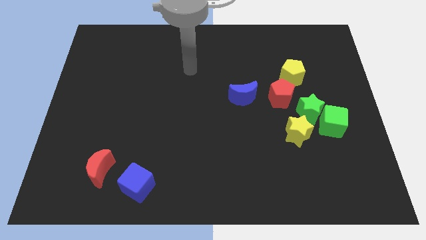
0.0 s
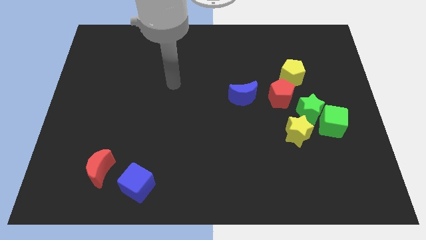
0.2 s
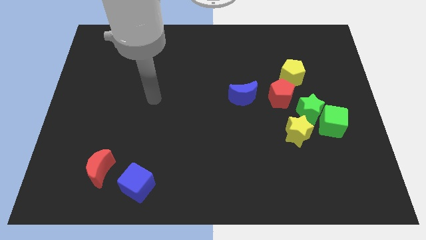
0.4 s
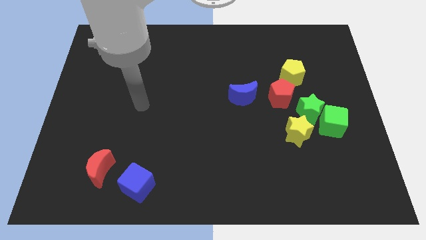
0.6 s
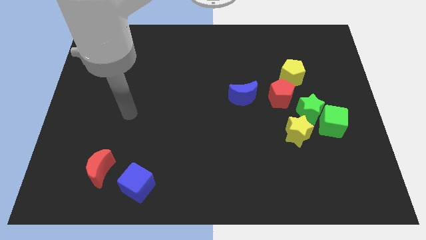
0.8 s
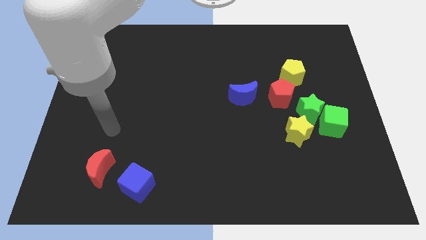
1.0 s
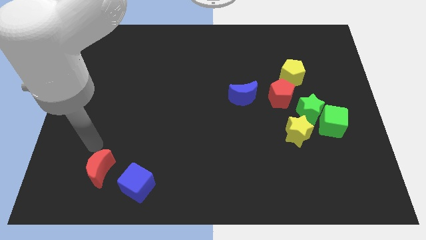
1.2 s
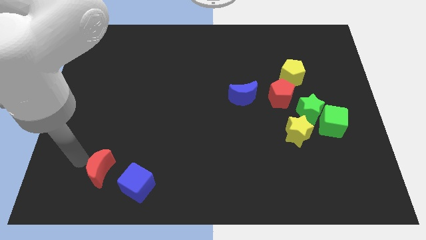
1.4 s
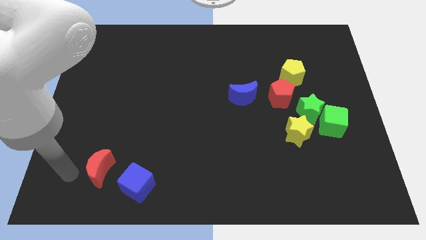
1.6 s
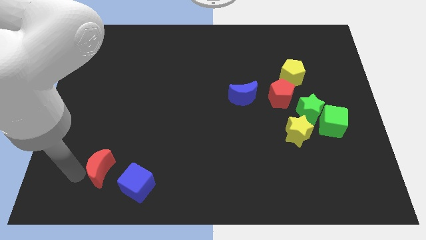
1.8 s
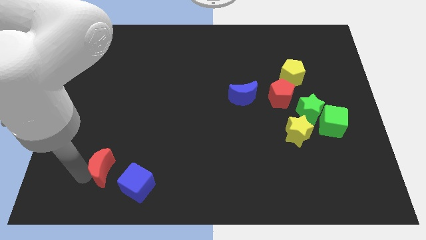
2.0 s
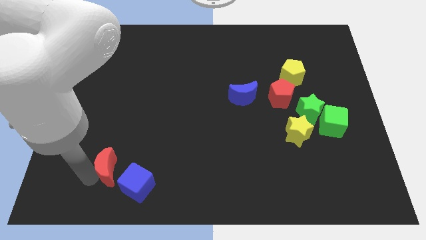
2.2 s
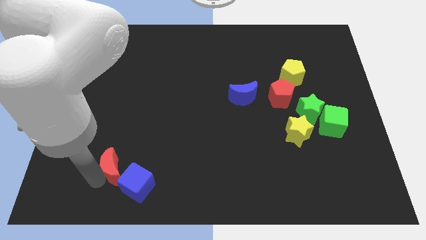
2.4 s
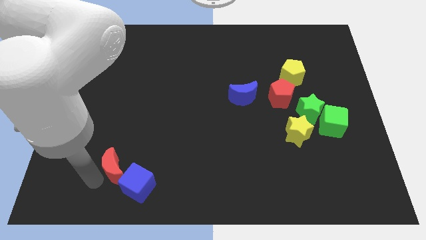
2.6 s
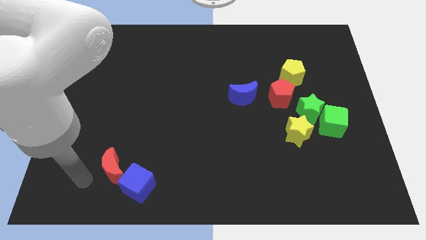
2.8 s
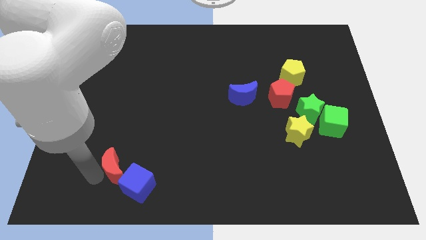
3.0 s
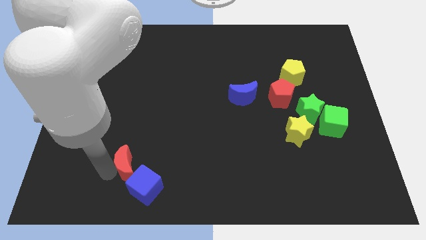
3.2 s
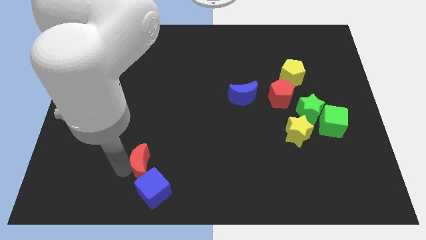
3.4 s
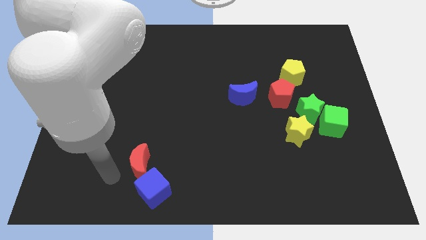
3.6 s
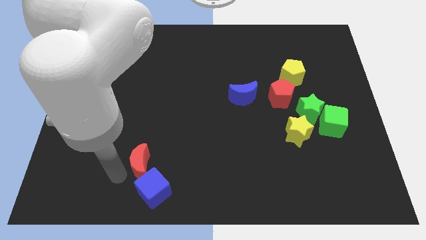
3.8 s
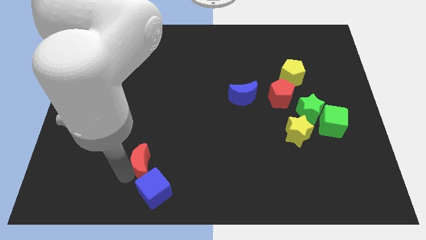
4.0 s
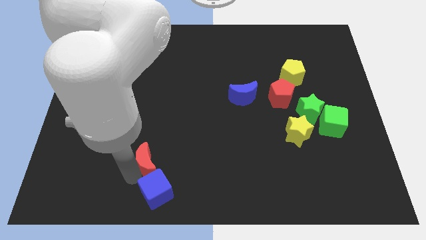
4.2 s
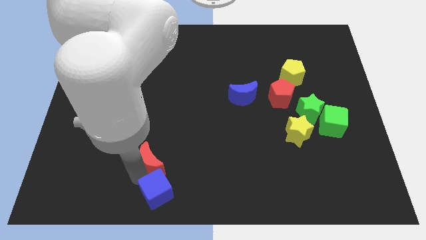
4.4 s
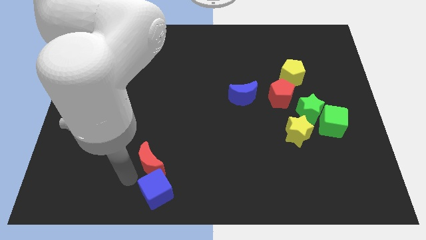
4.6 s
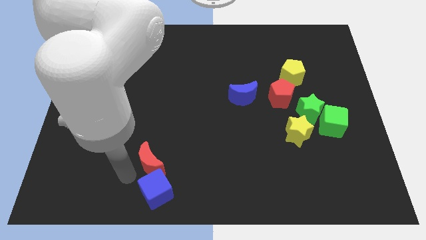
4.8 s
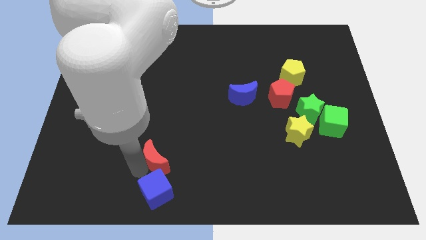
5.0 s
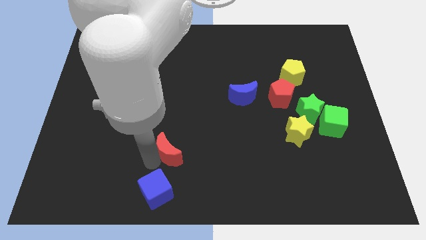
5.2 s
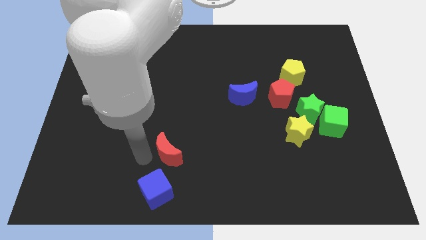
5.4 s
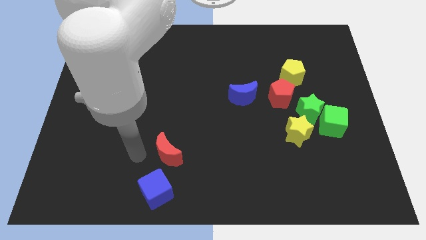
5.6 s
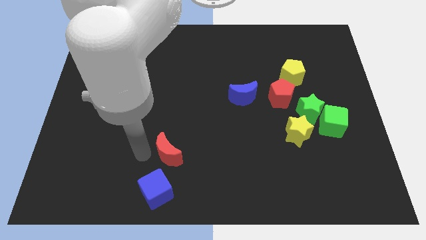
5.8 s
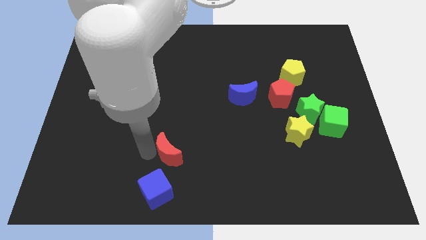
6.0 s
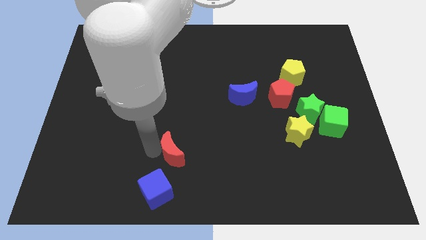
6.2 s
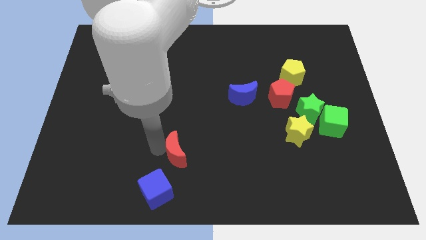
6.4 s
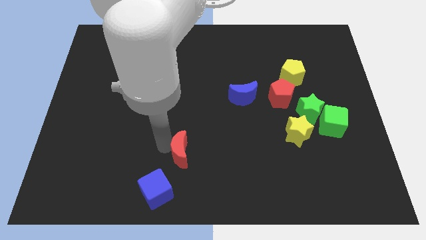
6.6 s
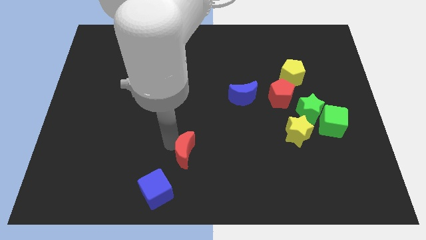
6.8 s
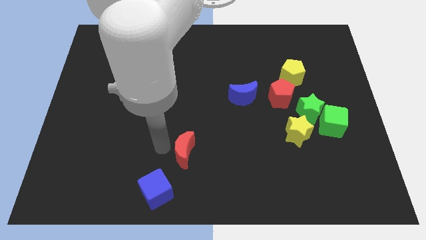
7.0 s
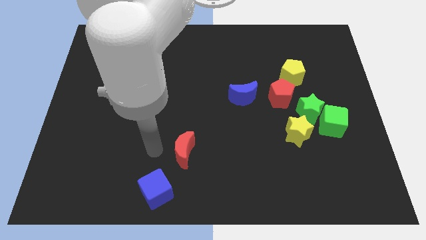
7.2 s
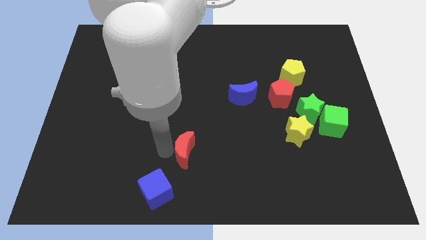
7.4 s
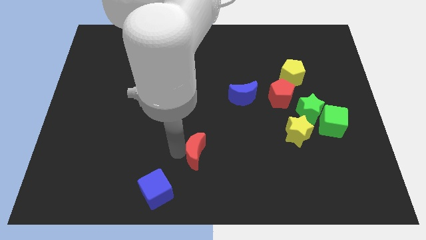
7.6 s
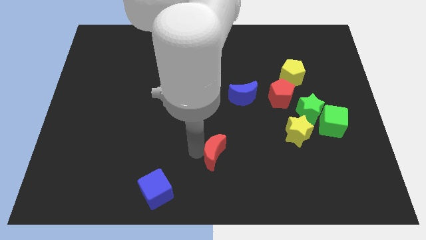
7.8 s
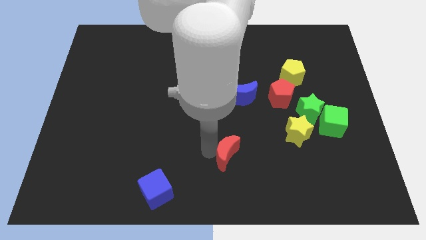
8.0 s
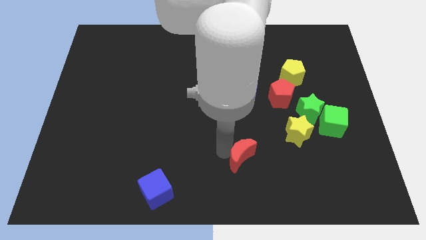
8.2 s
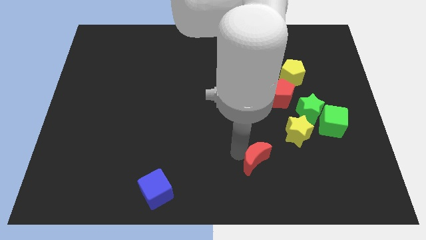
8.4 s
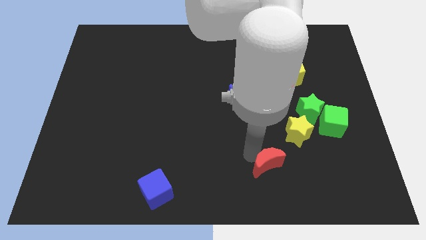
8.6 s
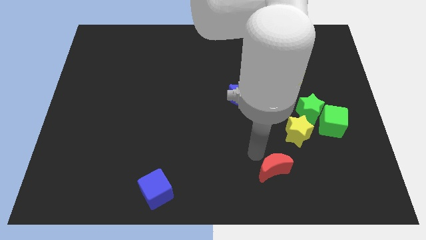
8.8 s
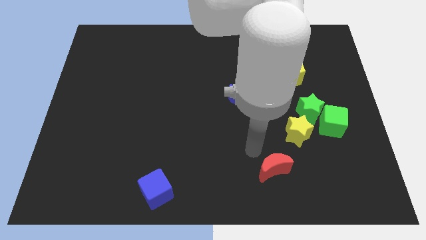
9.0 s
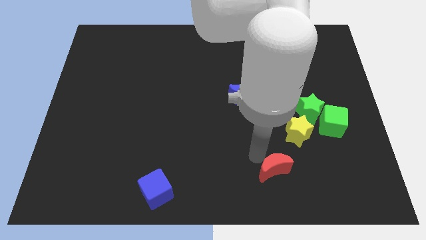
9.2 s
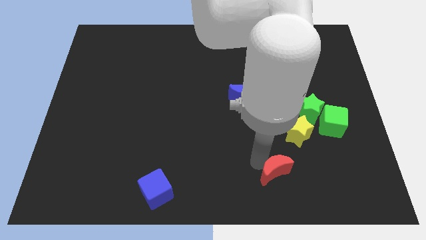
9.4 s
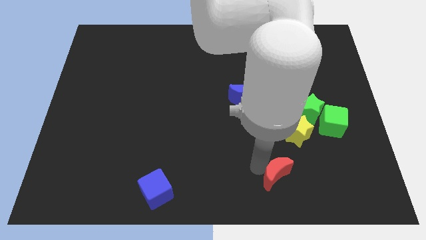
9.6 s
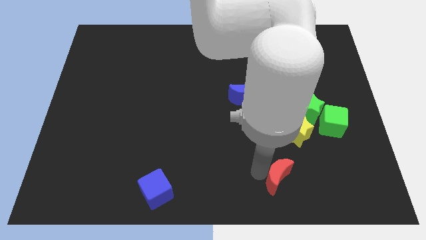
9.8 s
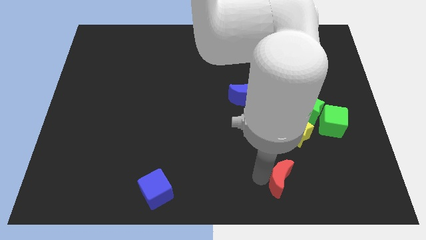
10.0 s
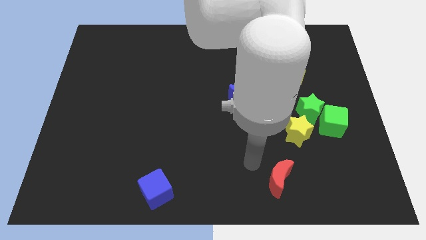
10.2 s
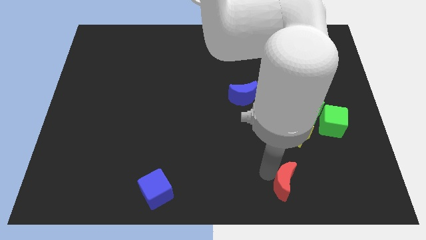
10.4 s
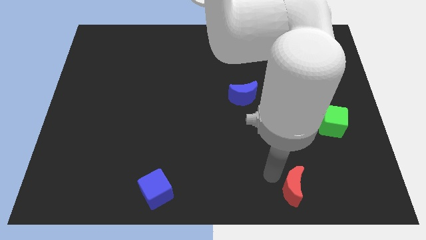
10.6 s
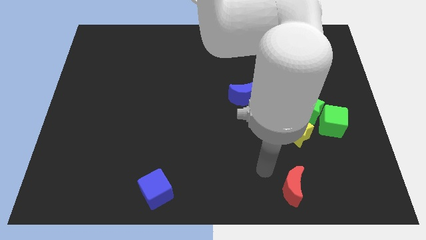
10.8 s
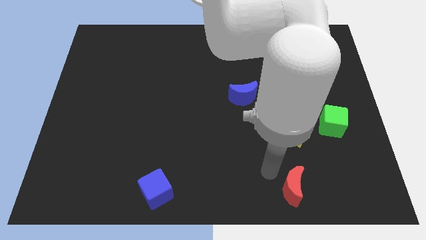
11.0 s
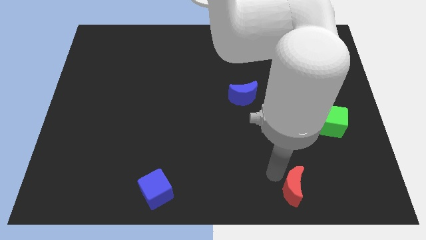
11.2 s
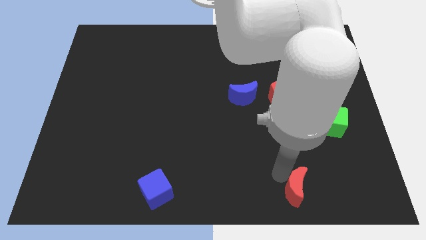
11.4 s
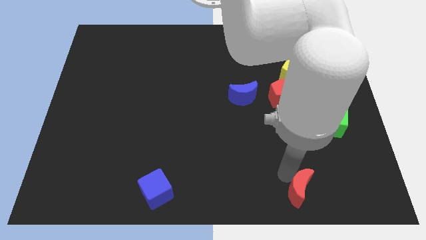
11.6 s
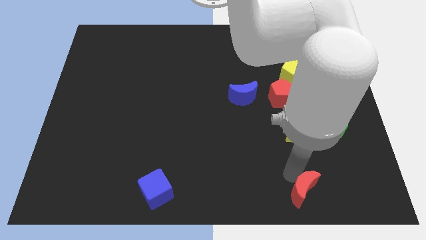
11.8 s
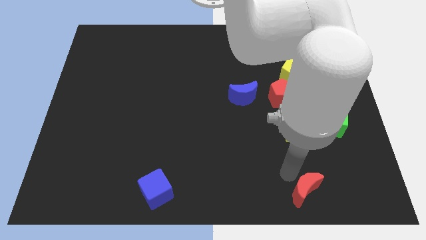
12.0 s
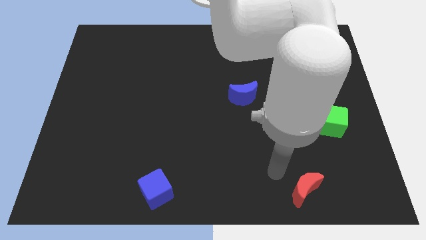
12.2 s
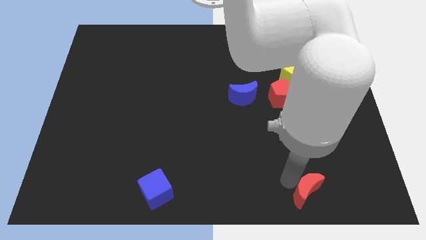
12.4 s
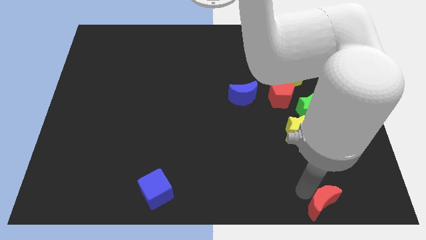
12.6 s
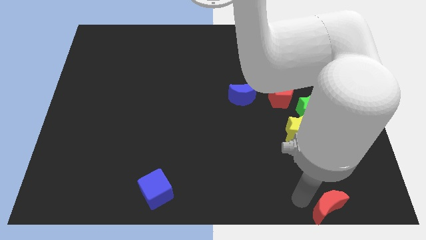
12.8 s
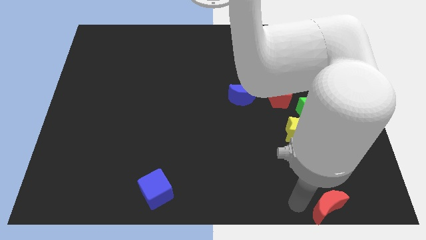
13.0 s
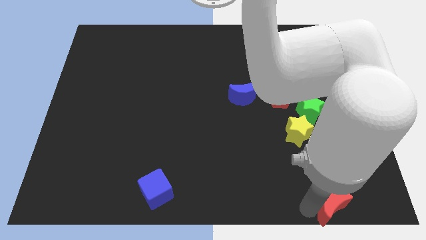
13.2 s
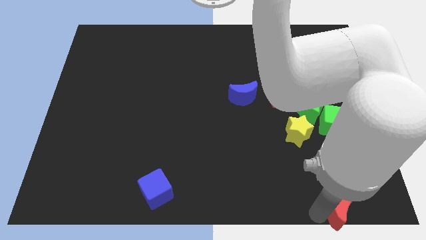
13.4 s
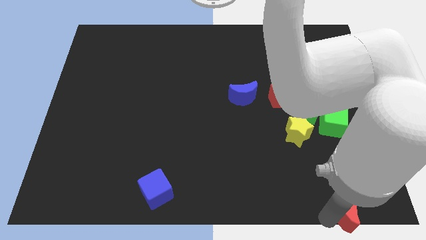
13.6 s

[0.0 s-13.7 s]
put the red moon to the bottom right
